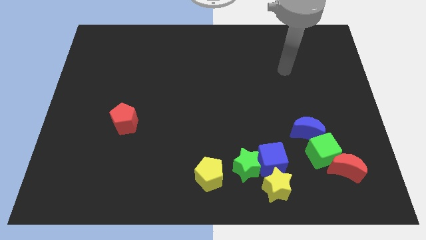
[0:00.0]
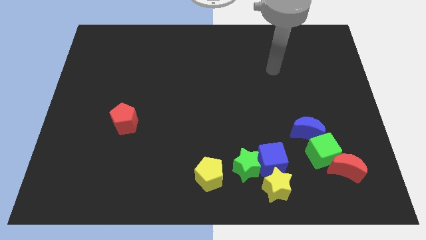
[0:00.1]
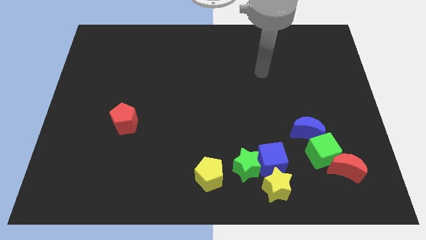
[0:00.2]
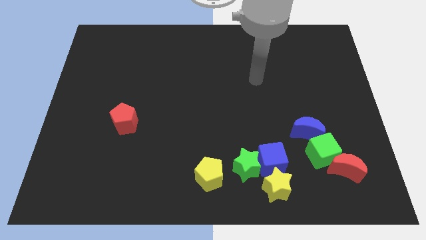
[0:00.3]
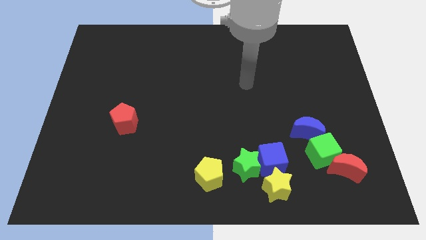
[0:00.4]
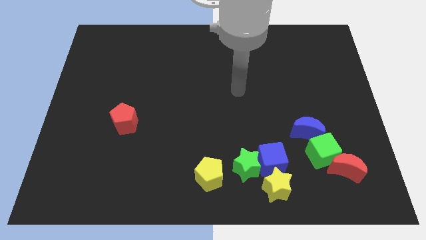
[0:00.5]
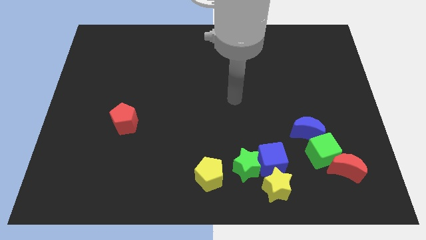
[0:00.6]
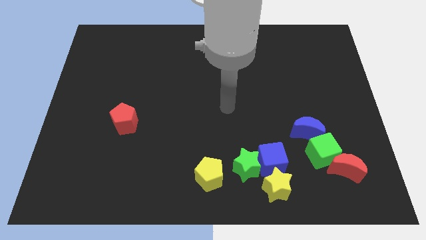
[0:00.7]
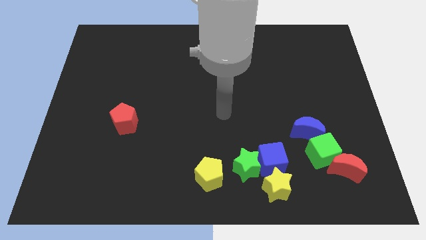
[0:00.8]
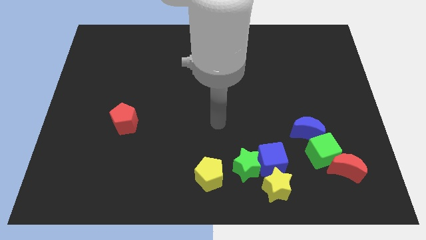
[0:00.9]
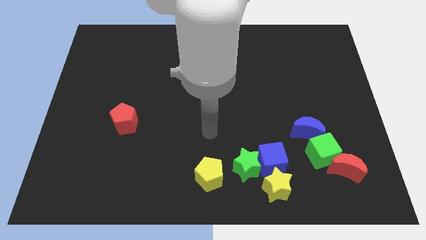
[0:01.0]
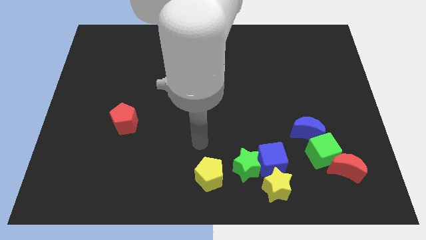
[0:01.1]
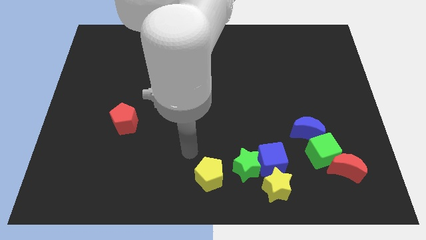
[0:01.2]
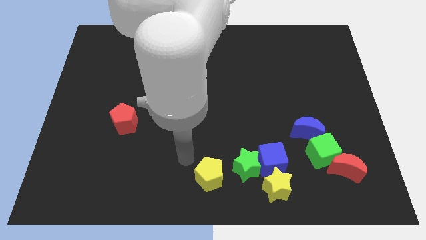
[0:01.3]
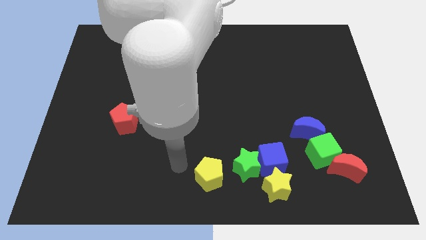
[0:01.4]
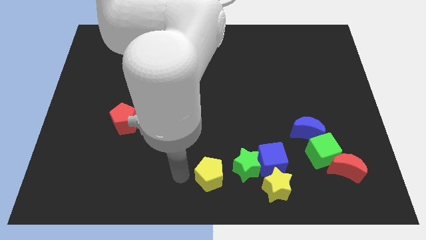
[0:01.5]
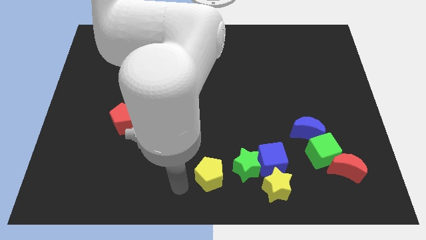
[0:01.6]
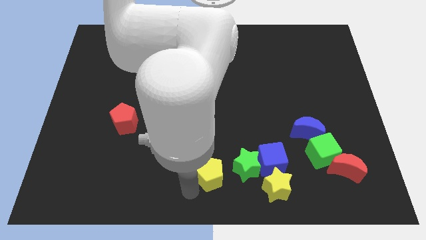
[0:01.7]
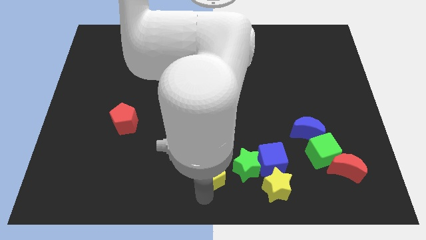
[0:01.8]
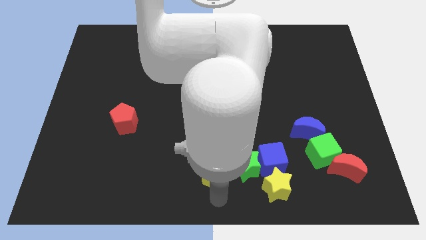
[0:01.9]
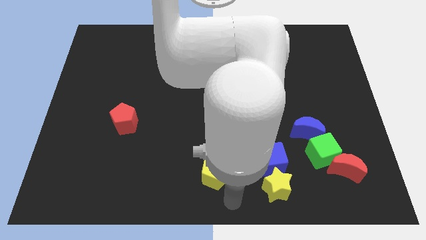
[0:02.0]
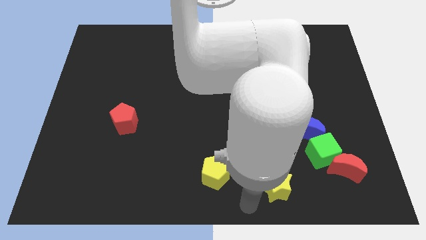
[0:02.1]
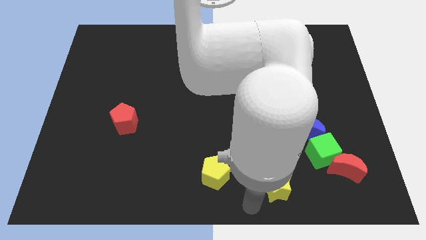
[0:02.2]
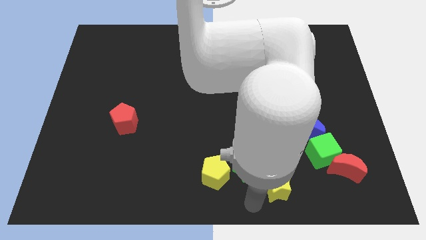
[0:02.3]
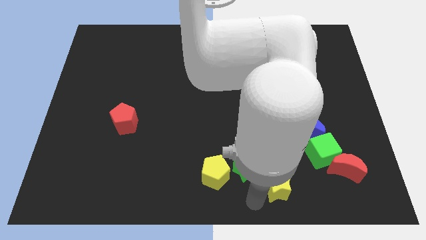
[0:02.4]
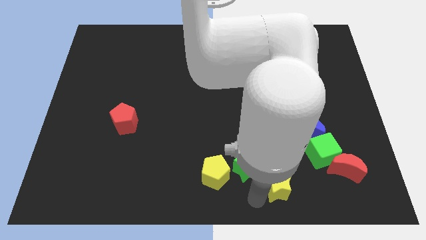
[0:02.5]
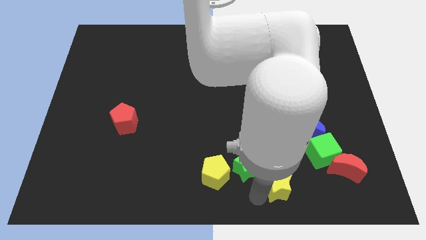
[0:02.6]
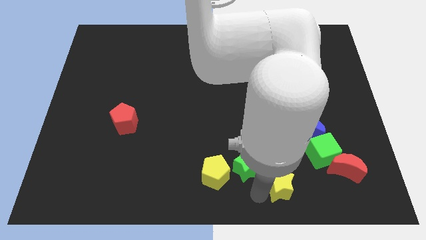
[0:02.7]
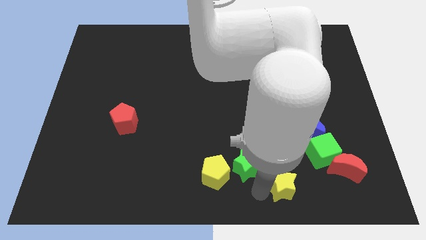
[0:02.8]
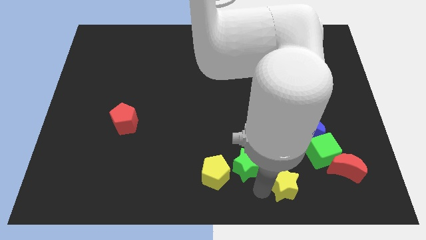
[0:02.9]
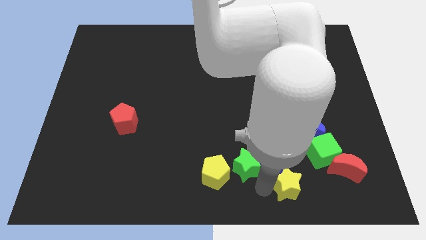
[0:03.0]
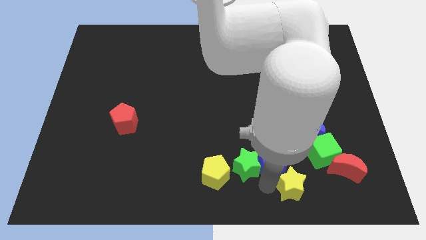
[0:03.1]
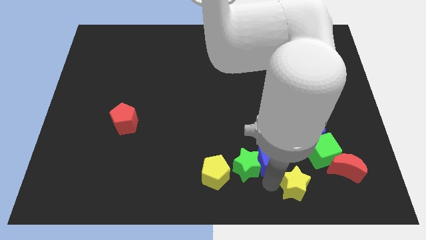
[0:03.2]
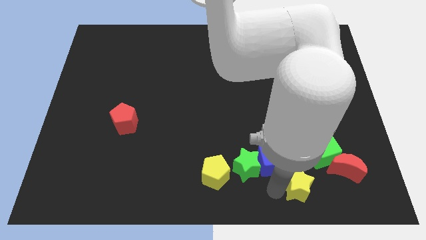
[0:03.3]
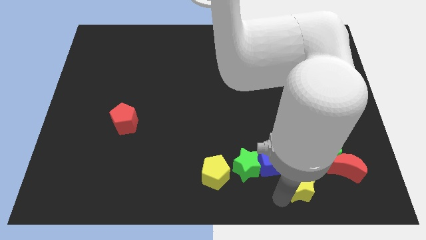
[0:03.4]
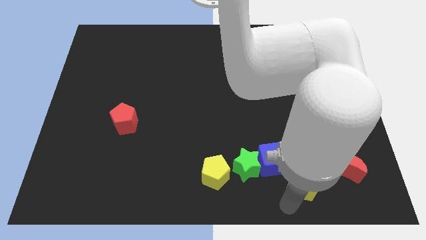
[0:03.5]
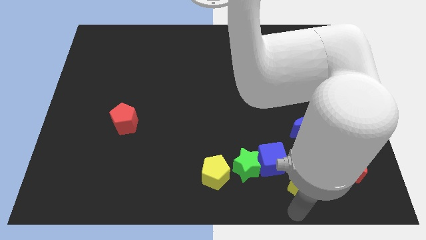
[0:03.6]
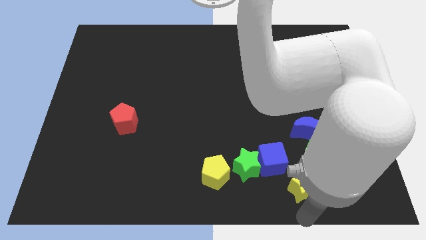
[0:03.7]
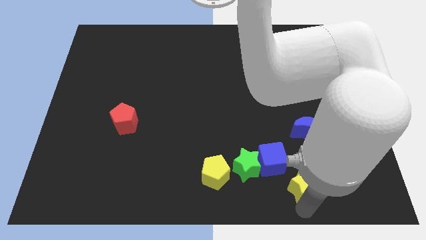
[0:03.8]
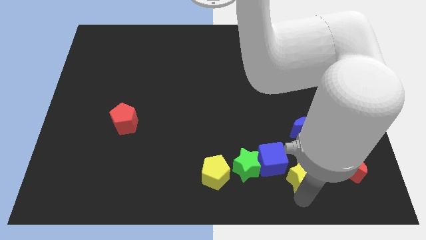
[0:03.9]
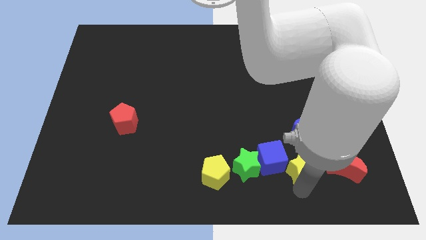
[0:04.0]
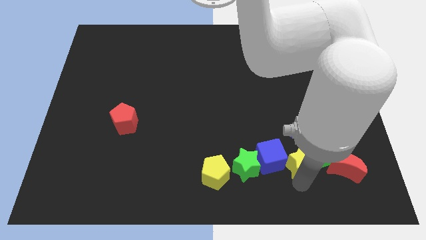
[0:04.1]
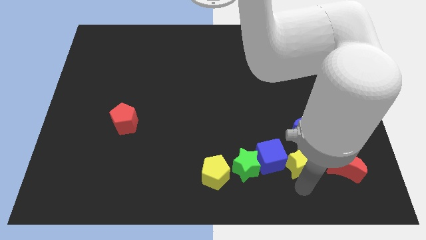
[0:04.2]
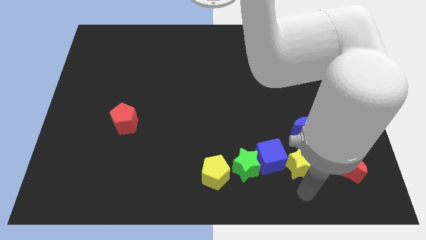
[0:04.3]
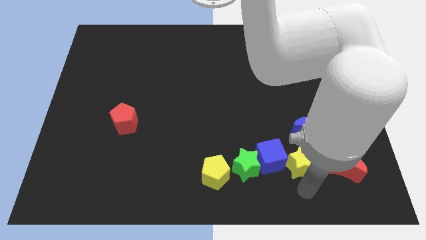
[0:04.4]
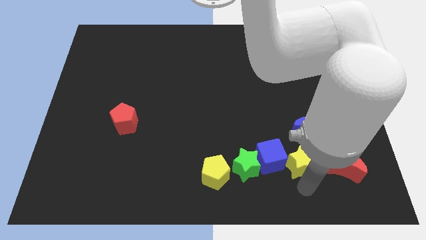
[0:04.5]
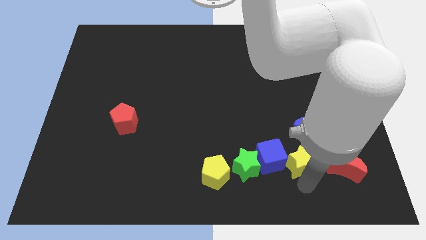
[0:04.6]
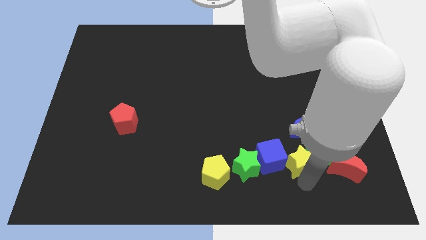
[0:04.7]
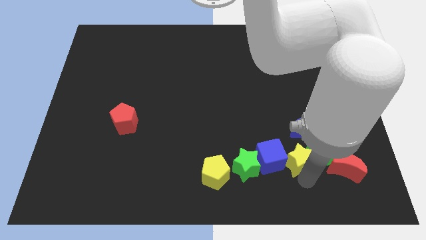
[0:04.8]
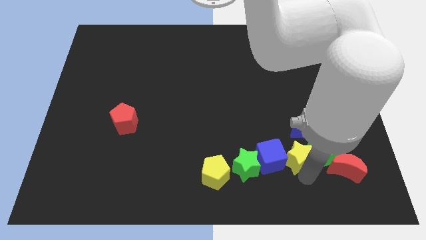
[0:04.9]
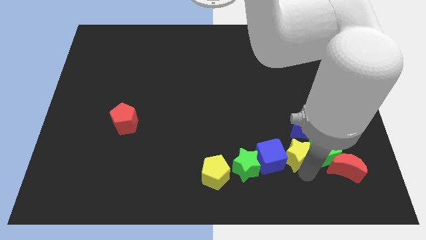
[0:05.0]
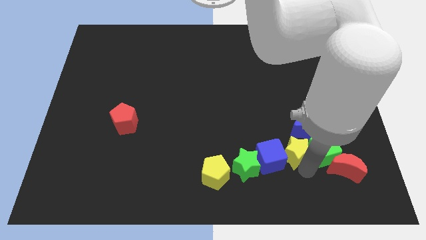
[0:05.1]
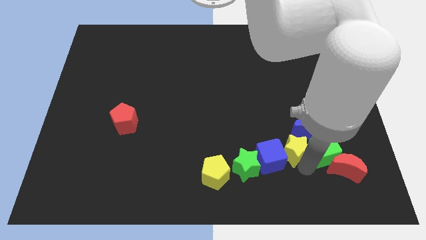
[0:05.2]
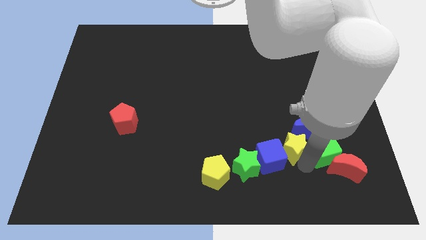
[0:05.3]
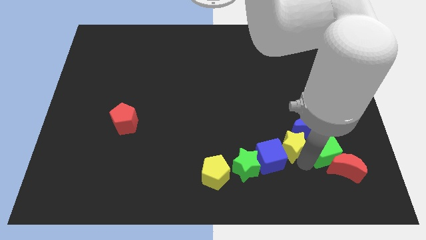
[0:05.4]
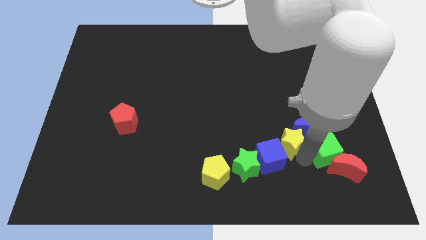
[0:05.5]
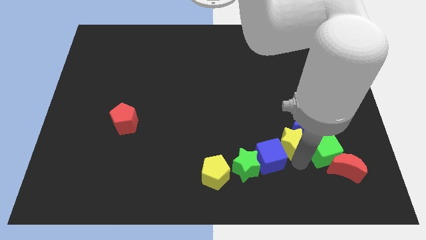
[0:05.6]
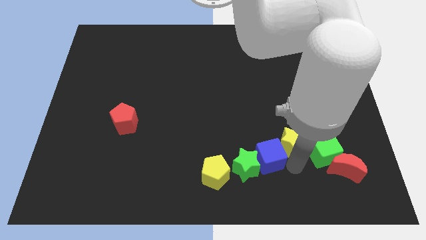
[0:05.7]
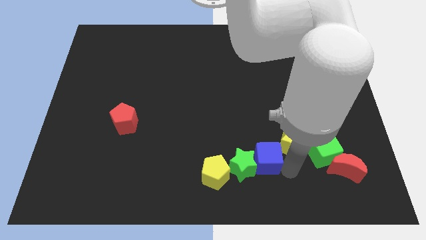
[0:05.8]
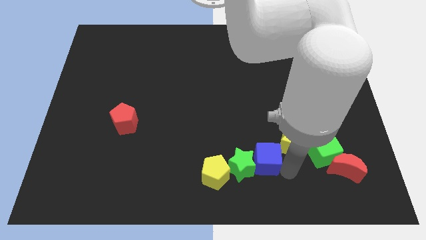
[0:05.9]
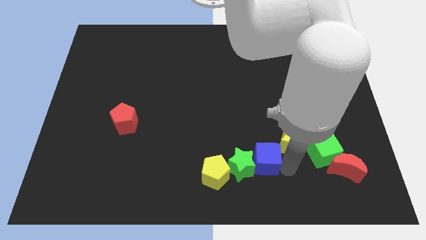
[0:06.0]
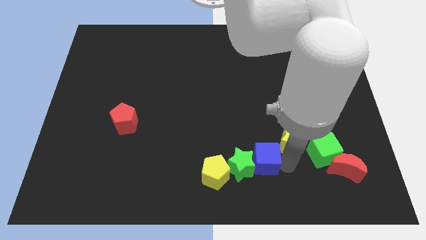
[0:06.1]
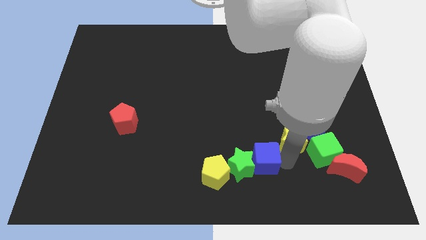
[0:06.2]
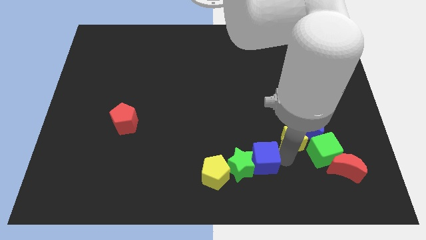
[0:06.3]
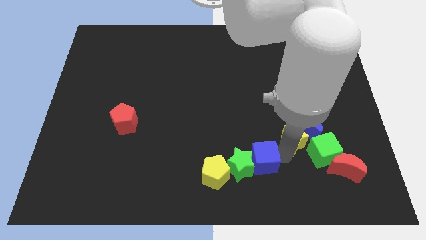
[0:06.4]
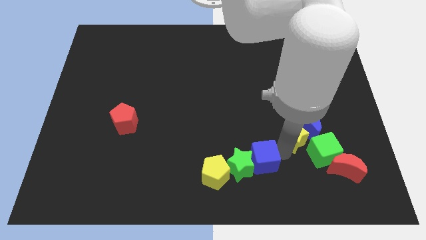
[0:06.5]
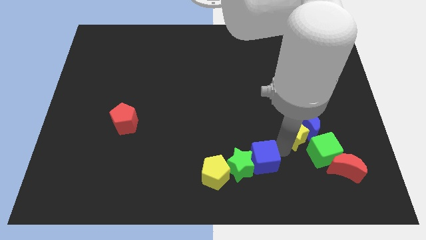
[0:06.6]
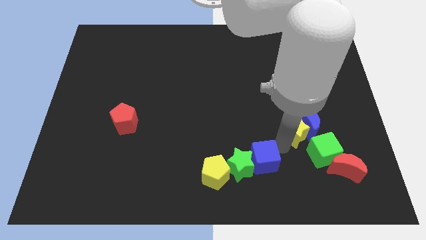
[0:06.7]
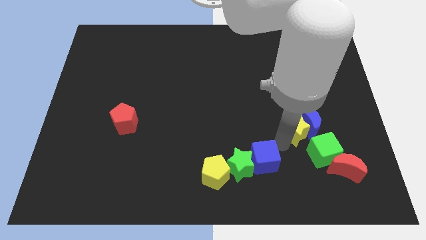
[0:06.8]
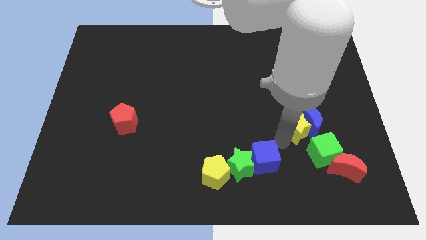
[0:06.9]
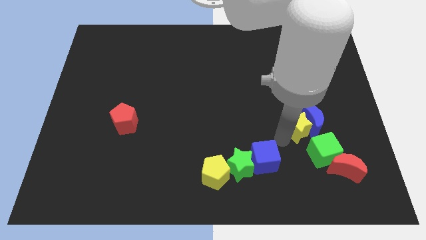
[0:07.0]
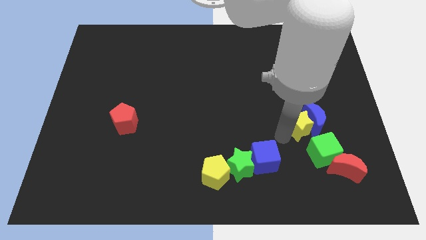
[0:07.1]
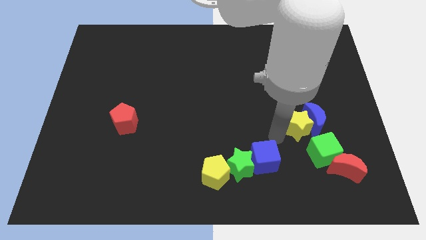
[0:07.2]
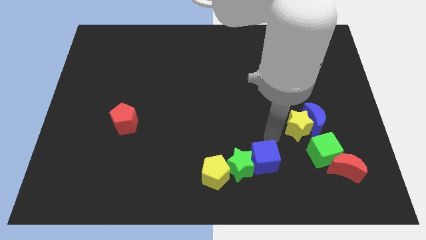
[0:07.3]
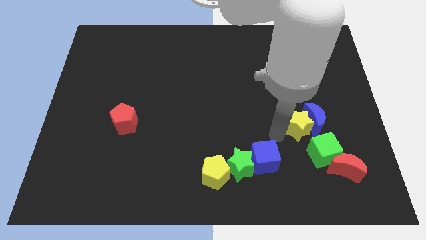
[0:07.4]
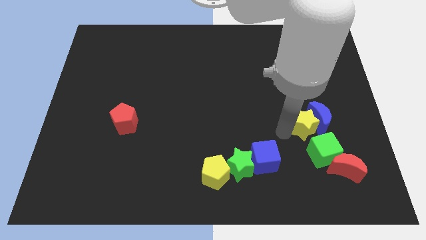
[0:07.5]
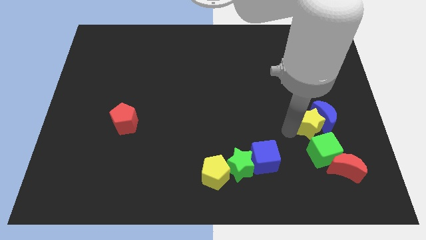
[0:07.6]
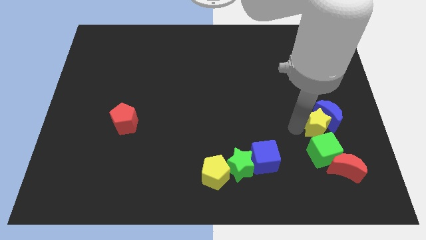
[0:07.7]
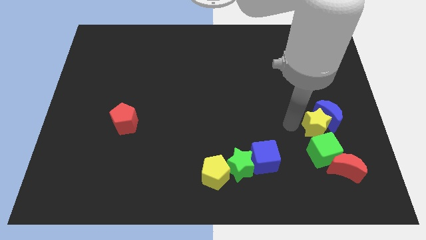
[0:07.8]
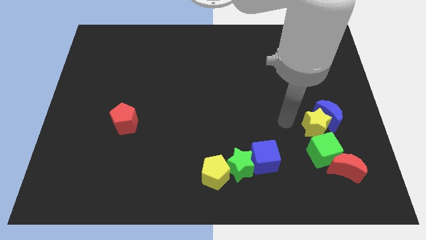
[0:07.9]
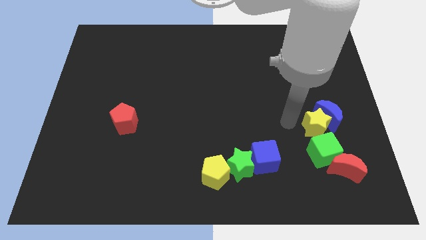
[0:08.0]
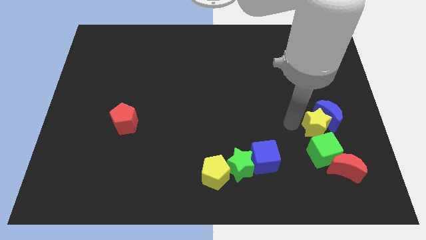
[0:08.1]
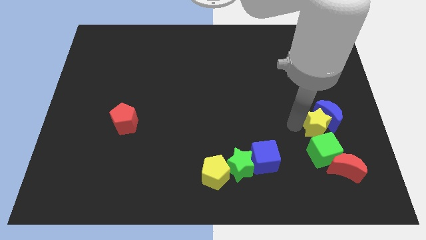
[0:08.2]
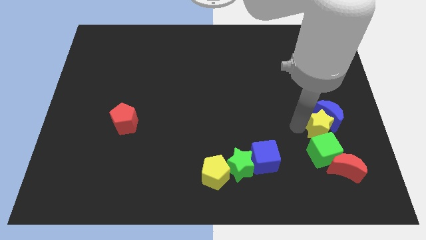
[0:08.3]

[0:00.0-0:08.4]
push the yellow star to the top right of the green cube
